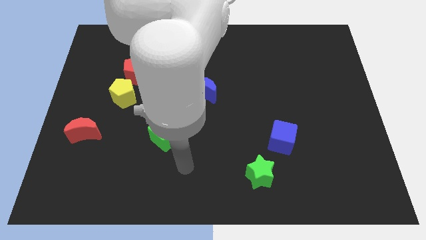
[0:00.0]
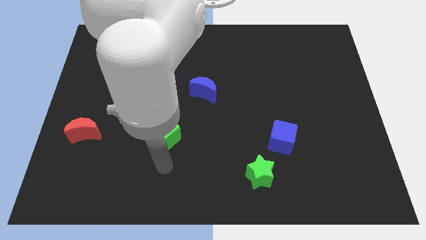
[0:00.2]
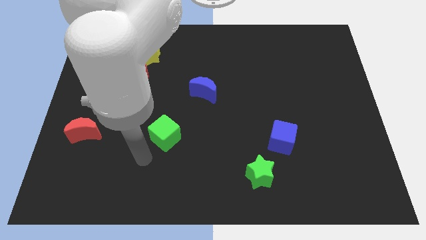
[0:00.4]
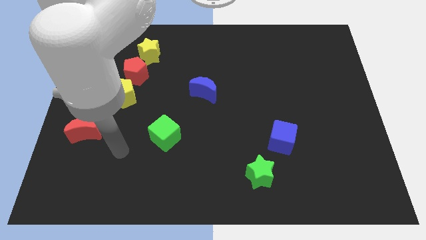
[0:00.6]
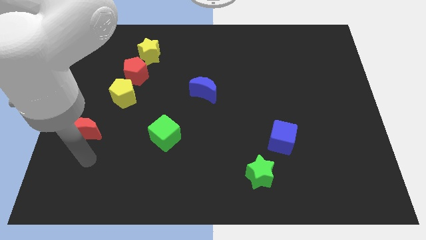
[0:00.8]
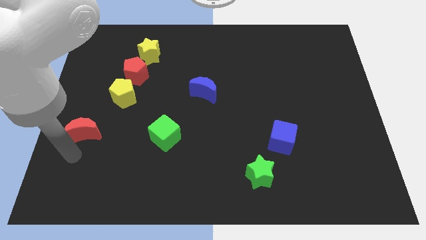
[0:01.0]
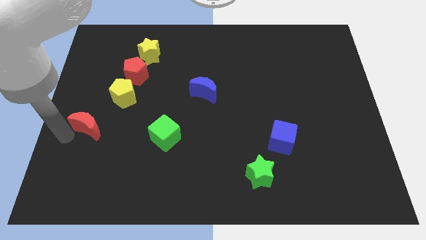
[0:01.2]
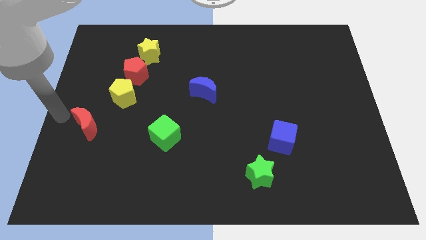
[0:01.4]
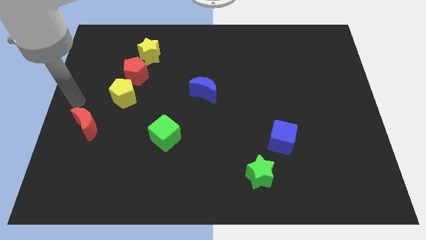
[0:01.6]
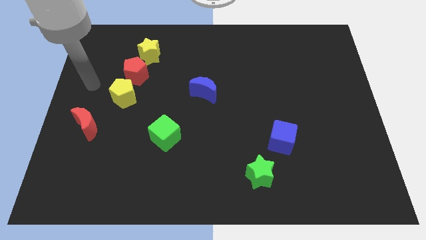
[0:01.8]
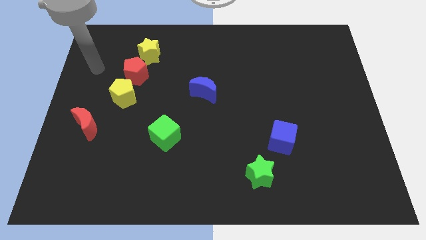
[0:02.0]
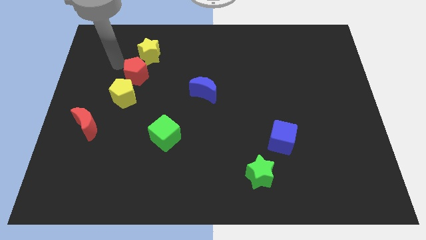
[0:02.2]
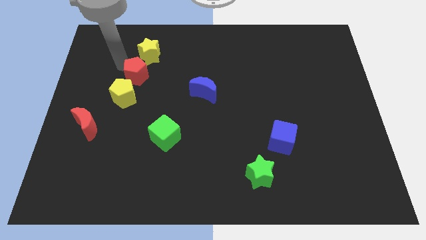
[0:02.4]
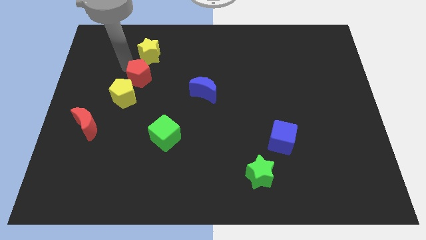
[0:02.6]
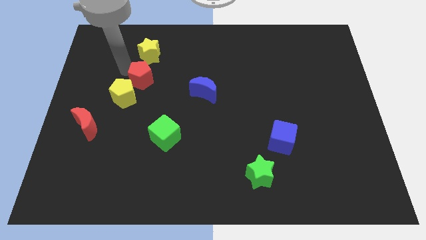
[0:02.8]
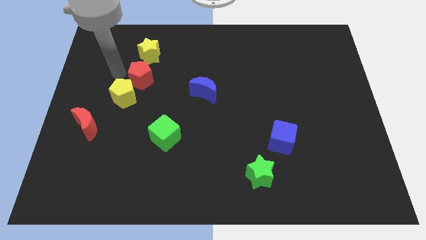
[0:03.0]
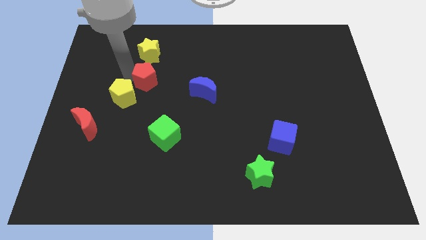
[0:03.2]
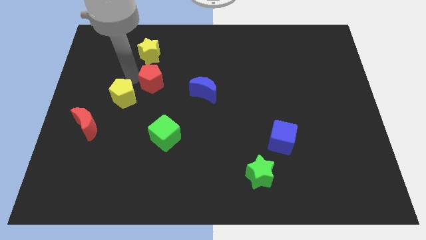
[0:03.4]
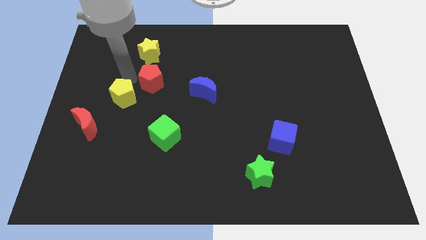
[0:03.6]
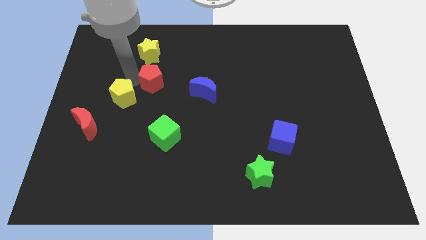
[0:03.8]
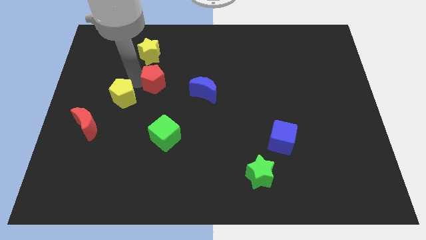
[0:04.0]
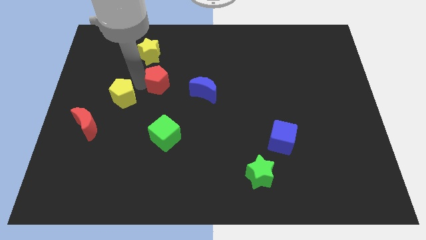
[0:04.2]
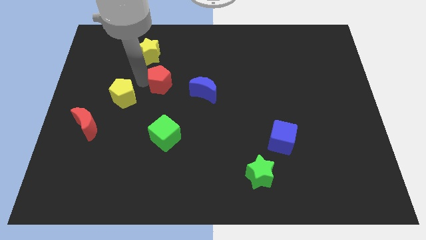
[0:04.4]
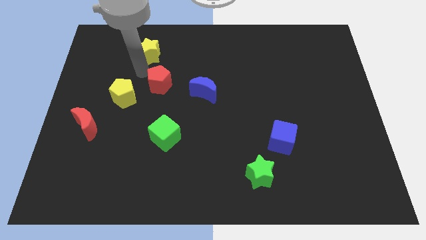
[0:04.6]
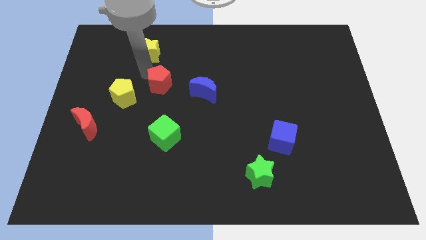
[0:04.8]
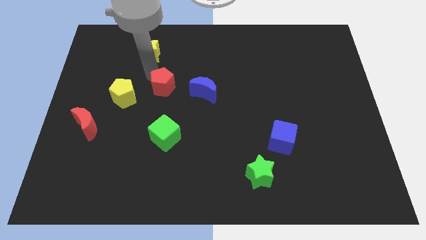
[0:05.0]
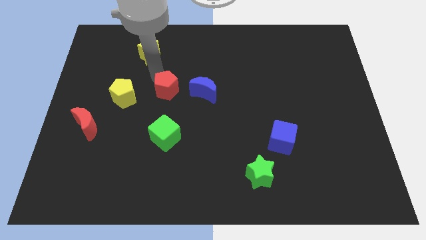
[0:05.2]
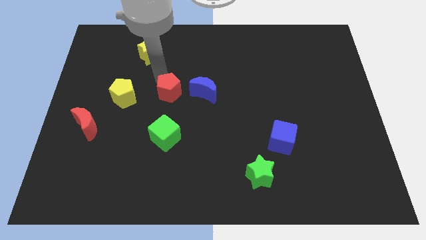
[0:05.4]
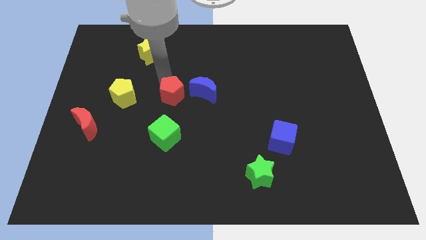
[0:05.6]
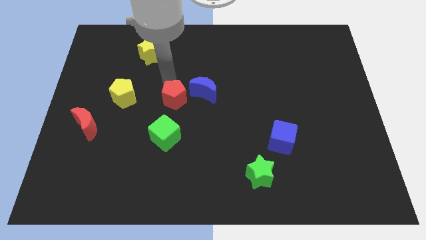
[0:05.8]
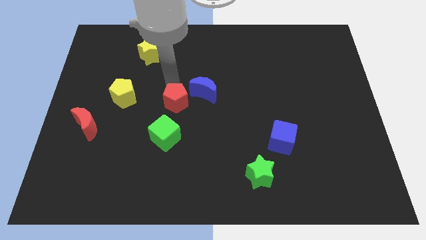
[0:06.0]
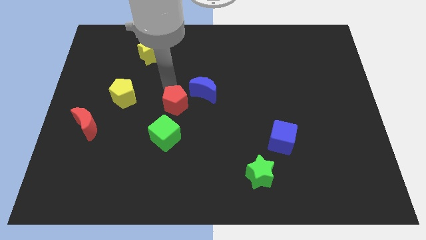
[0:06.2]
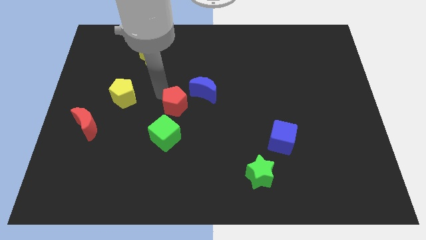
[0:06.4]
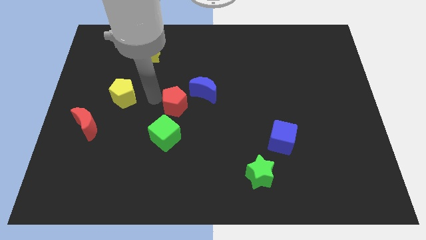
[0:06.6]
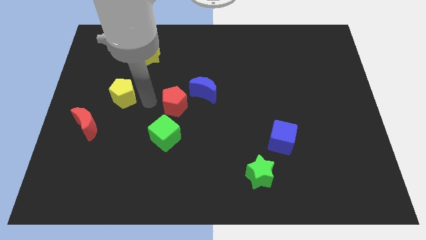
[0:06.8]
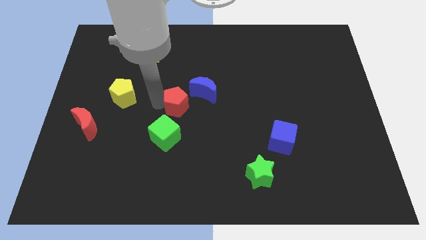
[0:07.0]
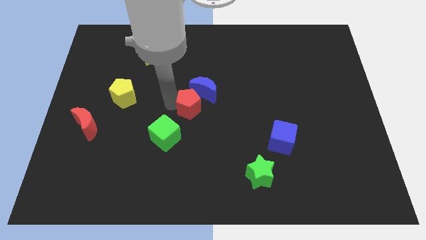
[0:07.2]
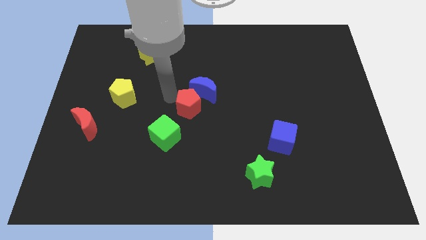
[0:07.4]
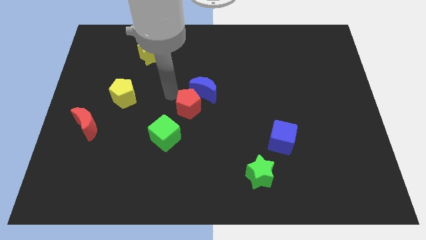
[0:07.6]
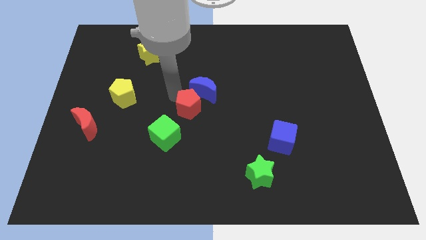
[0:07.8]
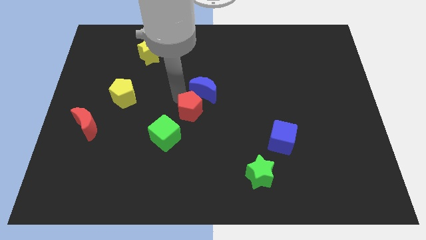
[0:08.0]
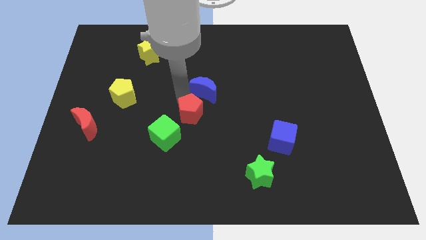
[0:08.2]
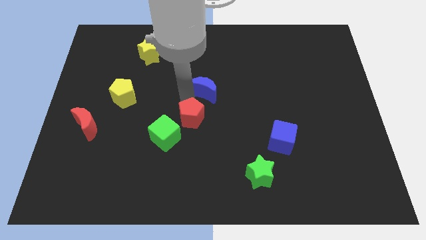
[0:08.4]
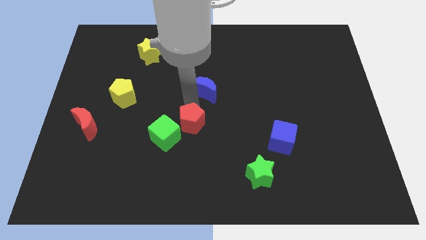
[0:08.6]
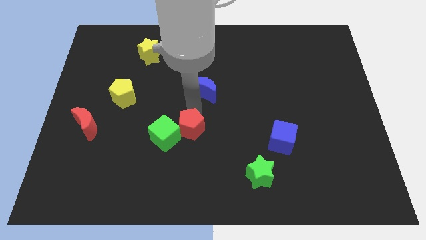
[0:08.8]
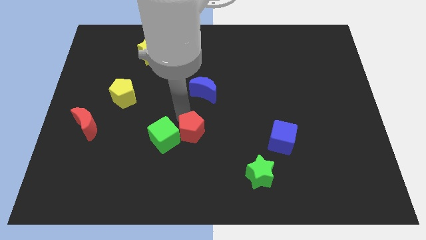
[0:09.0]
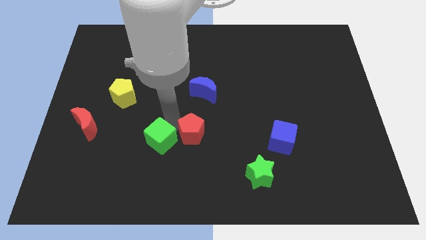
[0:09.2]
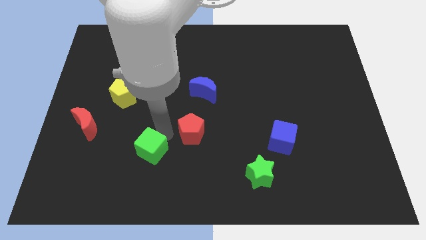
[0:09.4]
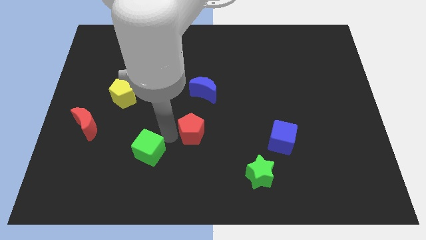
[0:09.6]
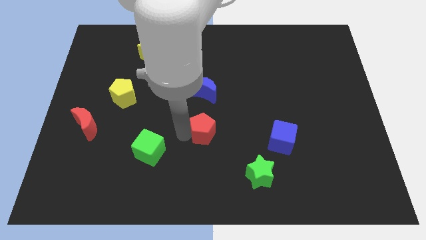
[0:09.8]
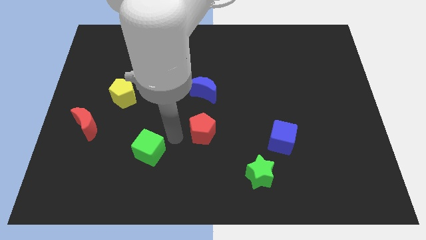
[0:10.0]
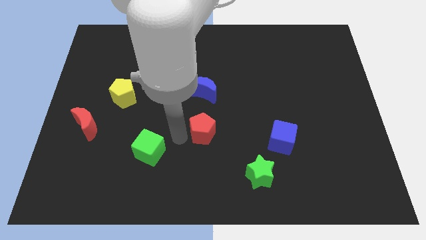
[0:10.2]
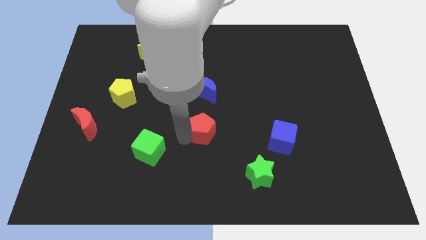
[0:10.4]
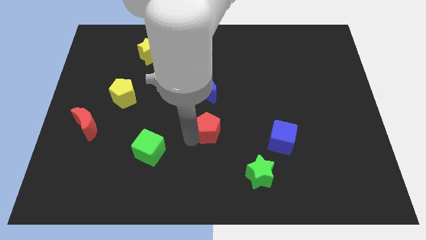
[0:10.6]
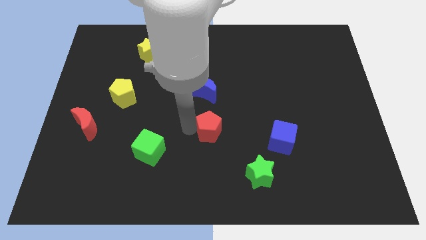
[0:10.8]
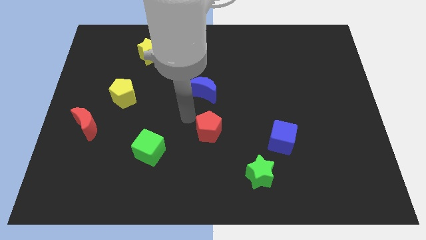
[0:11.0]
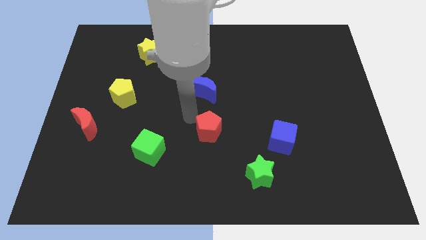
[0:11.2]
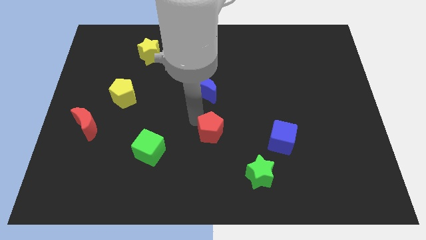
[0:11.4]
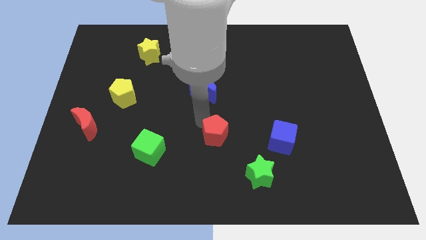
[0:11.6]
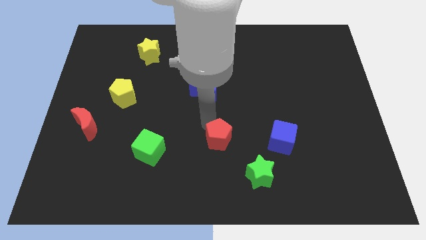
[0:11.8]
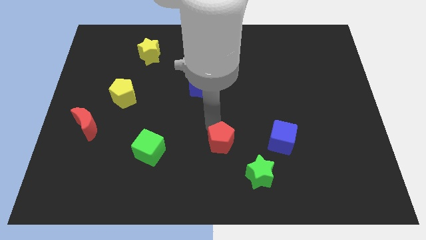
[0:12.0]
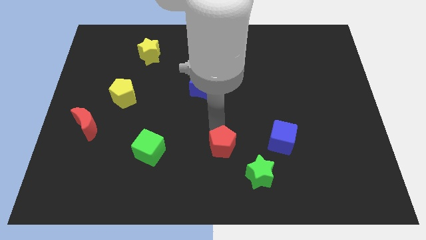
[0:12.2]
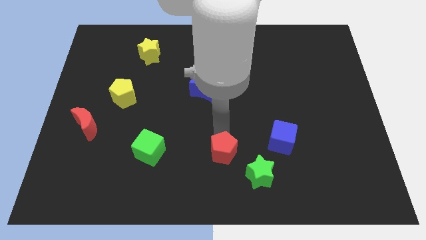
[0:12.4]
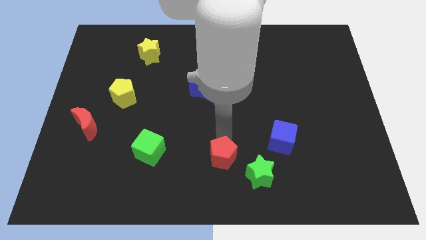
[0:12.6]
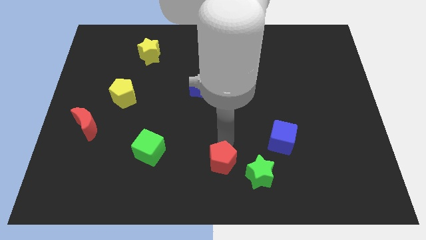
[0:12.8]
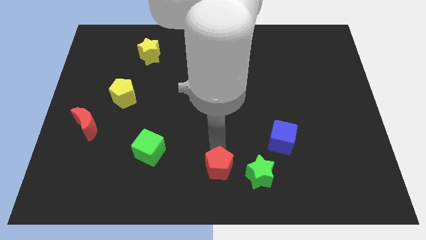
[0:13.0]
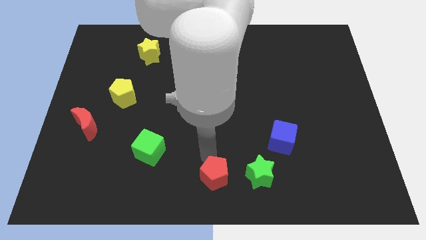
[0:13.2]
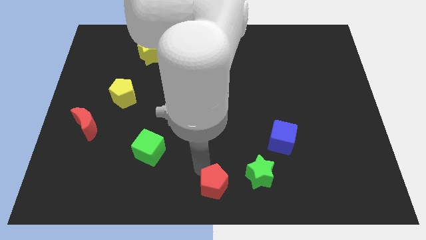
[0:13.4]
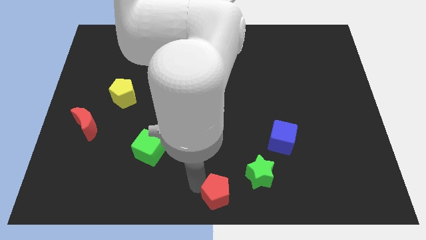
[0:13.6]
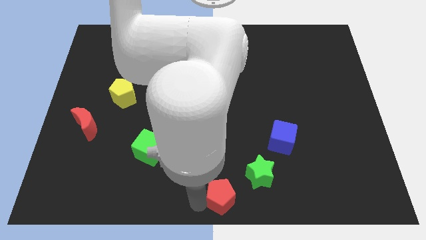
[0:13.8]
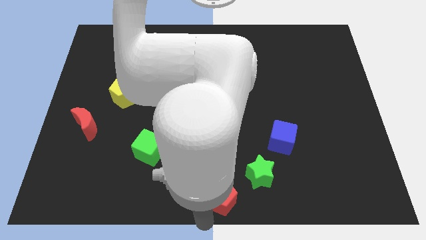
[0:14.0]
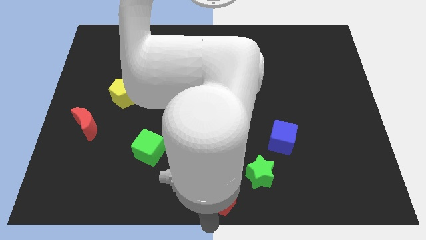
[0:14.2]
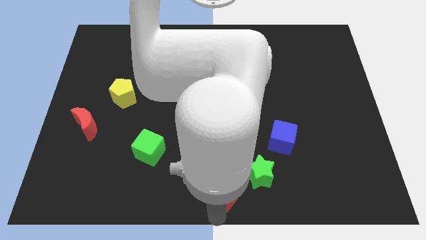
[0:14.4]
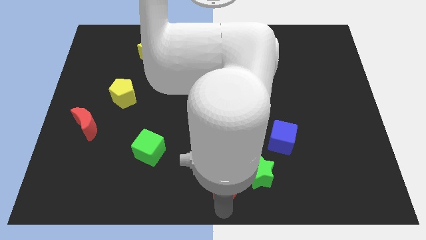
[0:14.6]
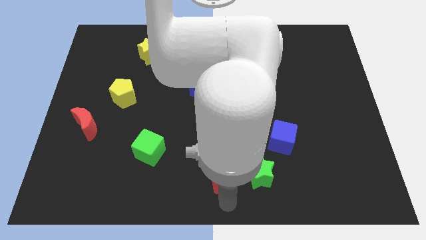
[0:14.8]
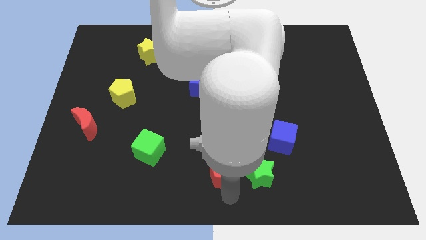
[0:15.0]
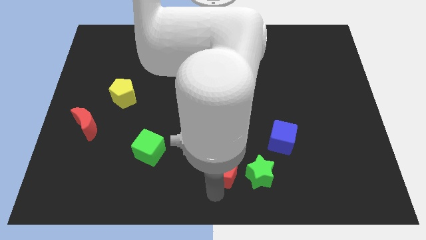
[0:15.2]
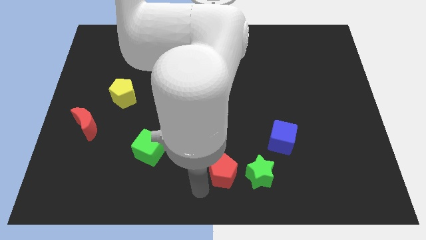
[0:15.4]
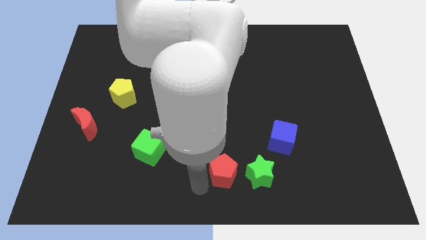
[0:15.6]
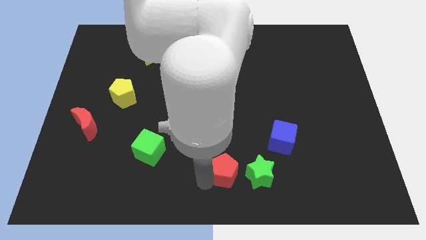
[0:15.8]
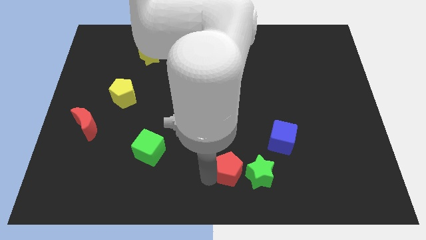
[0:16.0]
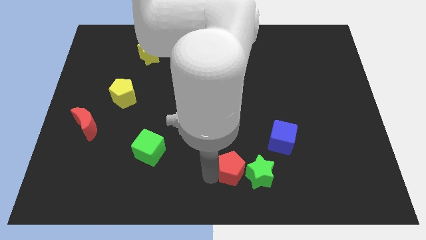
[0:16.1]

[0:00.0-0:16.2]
slide the red pentagon close to the green star
